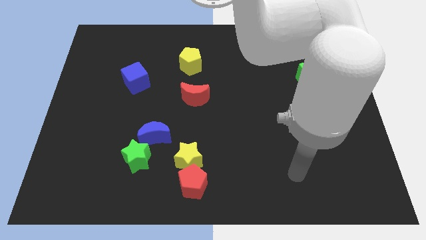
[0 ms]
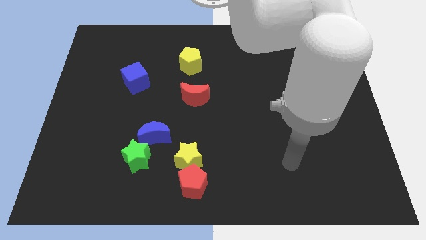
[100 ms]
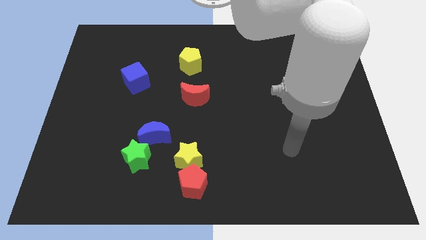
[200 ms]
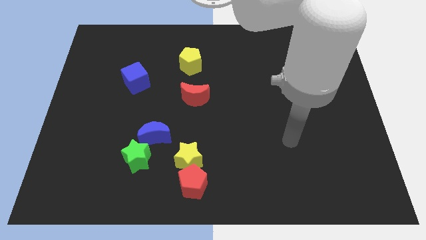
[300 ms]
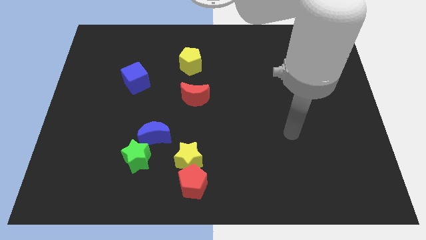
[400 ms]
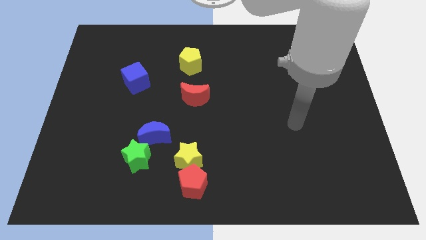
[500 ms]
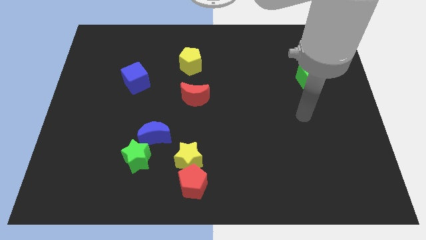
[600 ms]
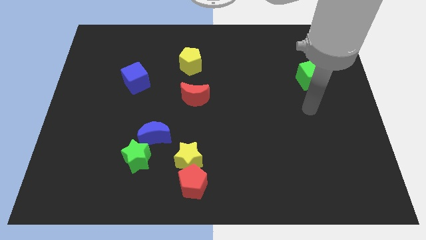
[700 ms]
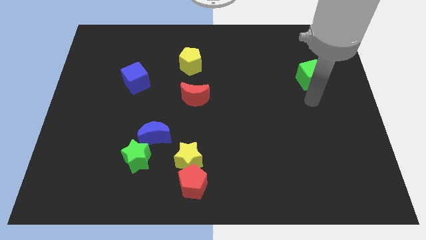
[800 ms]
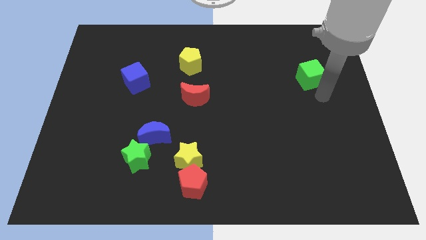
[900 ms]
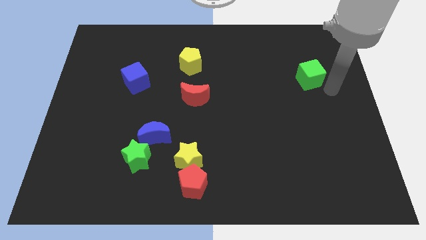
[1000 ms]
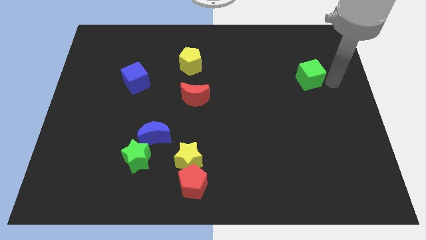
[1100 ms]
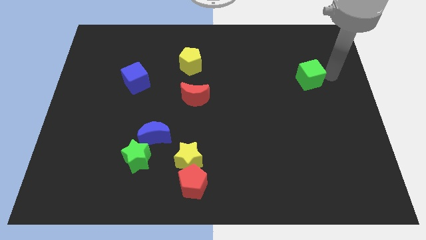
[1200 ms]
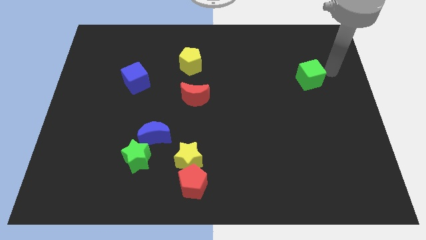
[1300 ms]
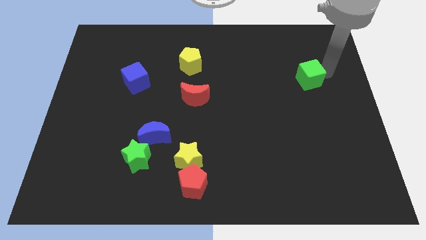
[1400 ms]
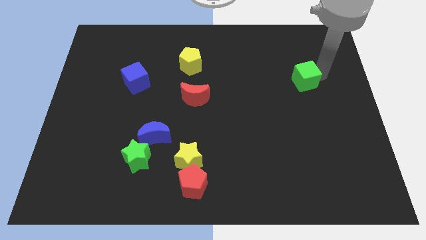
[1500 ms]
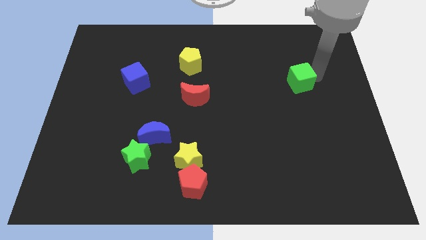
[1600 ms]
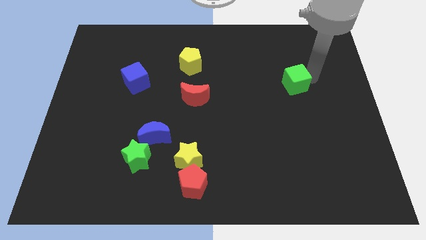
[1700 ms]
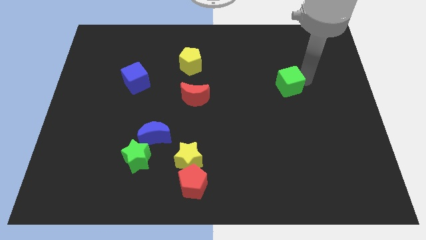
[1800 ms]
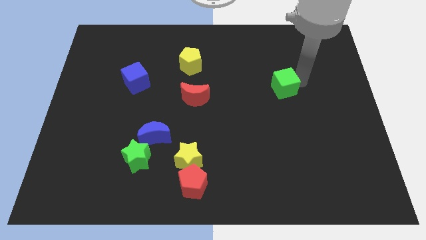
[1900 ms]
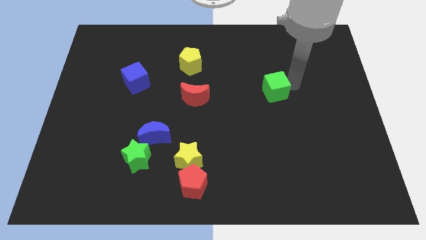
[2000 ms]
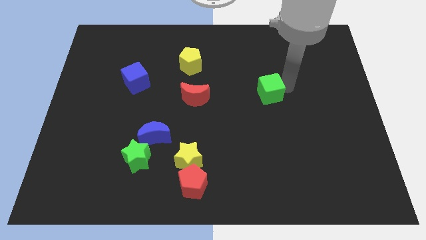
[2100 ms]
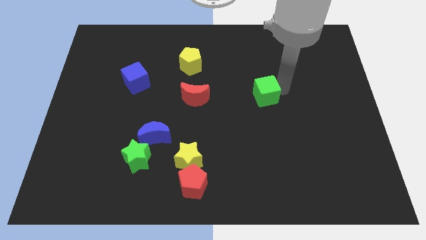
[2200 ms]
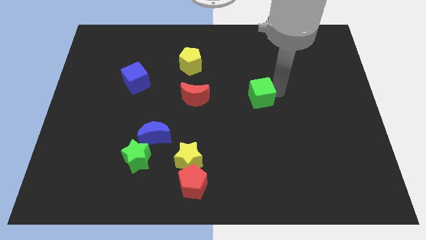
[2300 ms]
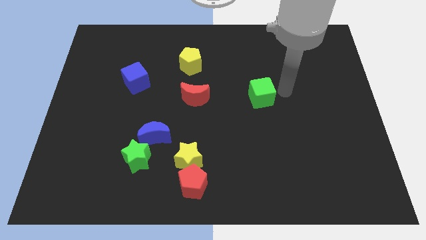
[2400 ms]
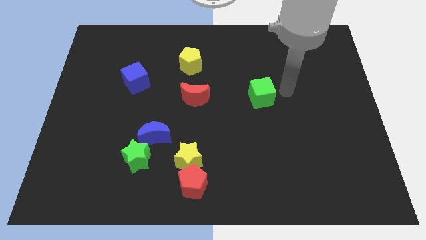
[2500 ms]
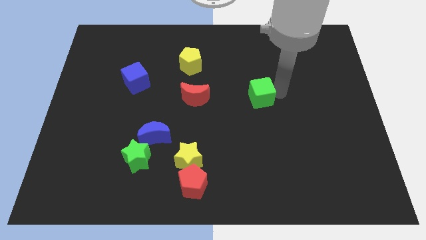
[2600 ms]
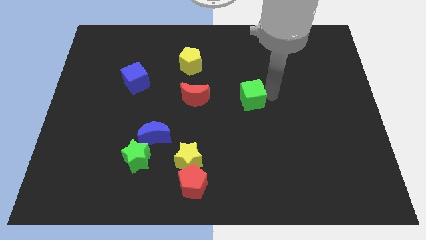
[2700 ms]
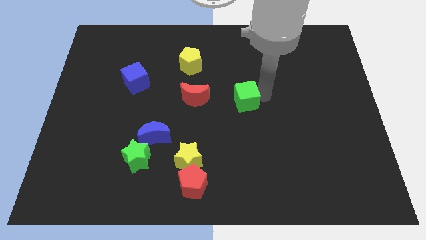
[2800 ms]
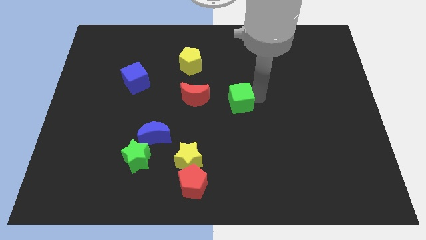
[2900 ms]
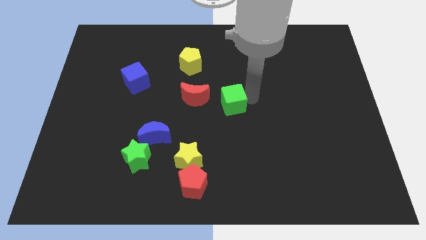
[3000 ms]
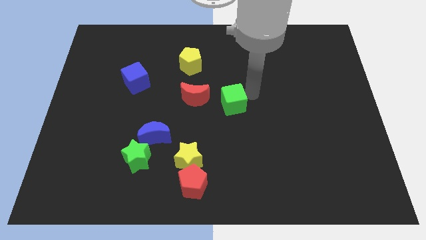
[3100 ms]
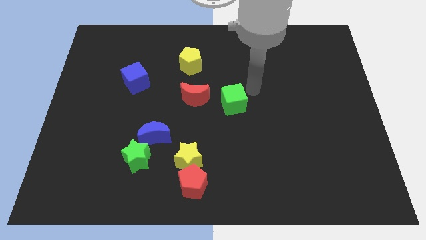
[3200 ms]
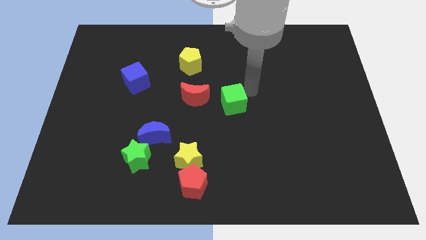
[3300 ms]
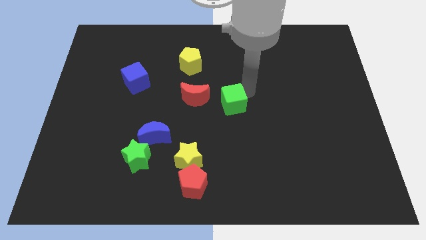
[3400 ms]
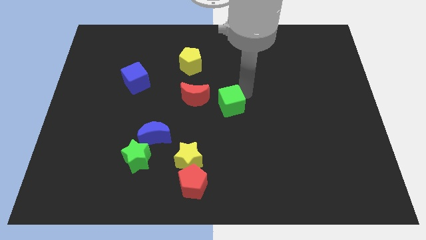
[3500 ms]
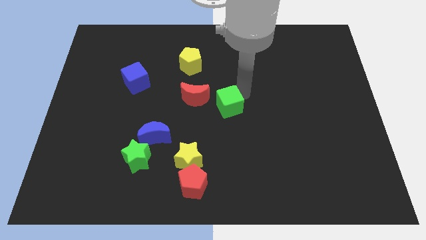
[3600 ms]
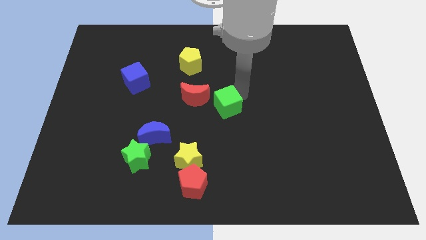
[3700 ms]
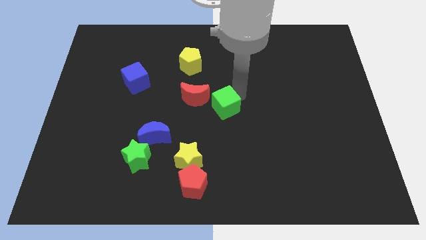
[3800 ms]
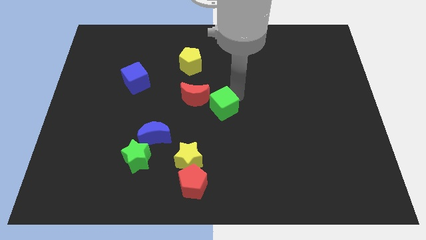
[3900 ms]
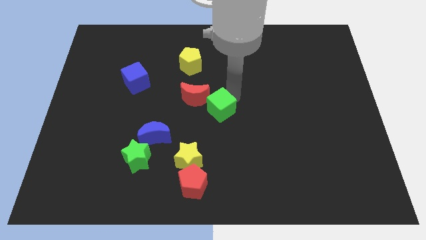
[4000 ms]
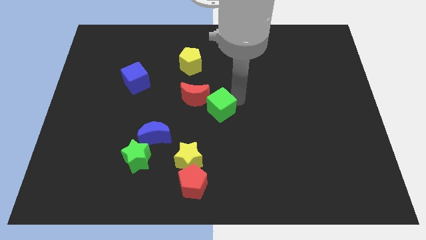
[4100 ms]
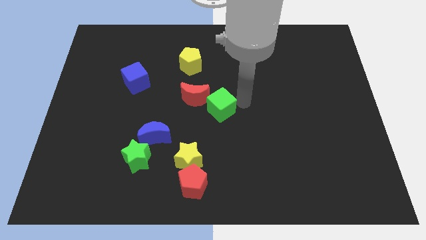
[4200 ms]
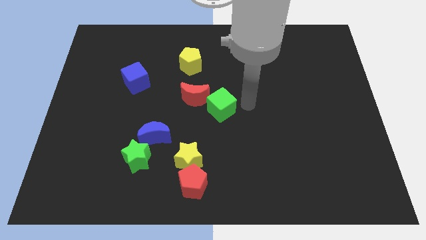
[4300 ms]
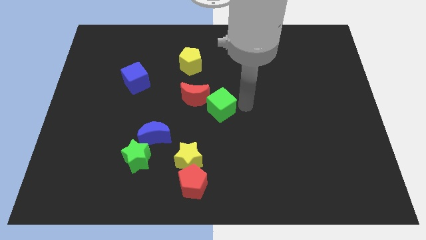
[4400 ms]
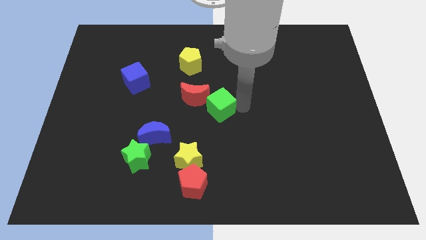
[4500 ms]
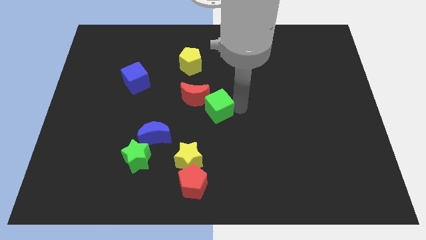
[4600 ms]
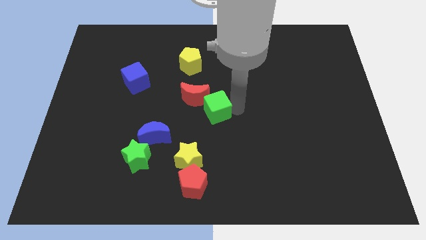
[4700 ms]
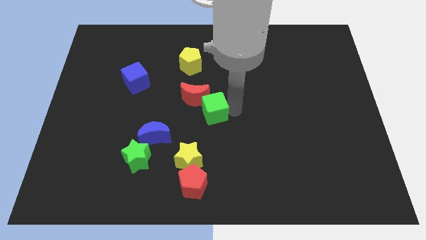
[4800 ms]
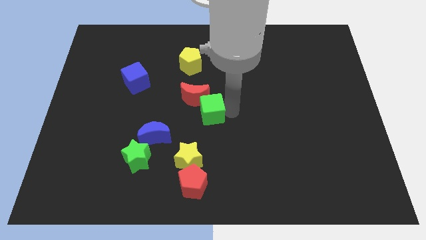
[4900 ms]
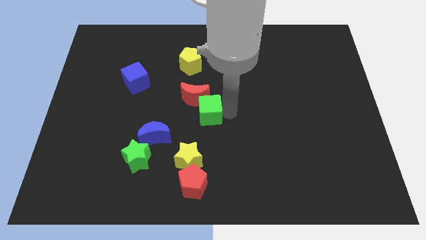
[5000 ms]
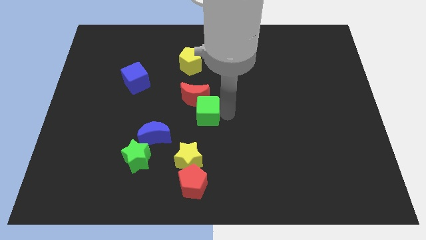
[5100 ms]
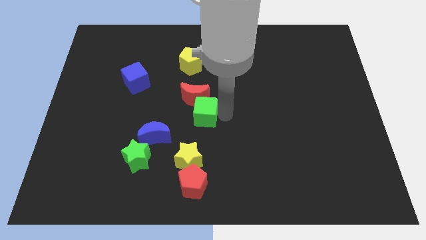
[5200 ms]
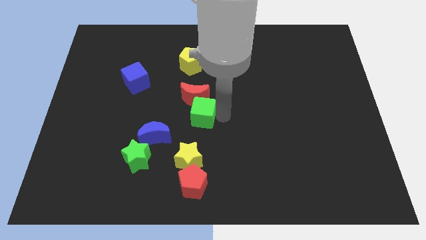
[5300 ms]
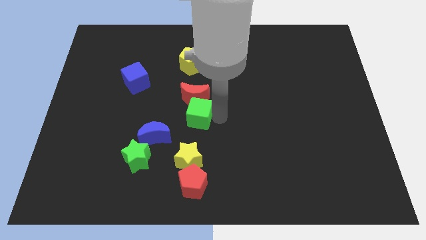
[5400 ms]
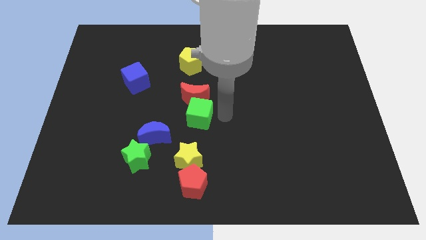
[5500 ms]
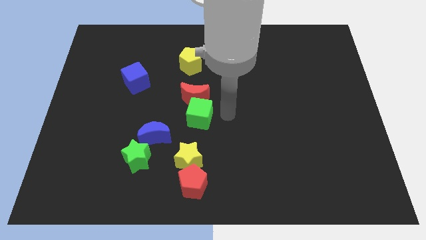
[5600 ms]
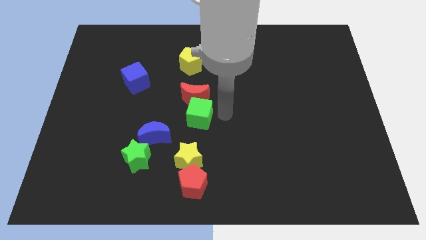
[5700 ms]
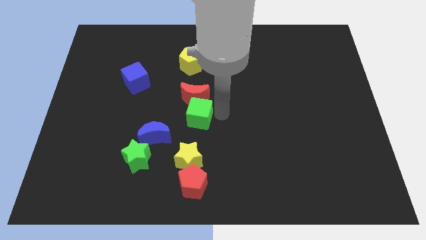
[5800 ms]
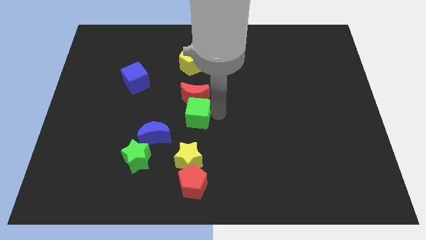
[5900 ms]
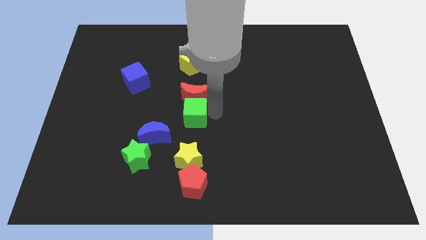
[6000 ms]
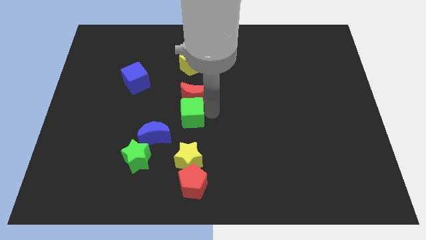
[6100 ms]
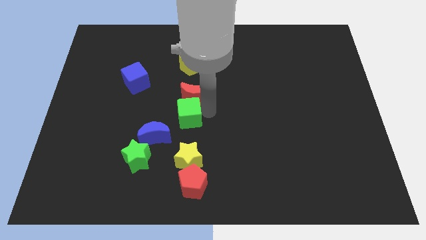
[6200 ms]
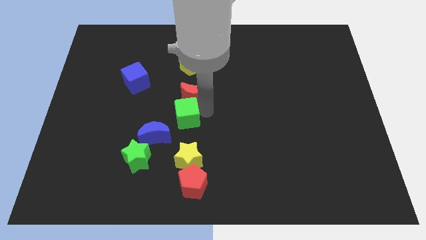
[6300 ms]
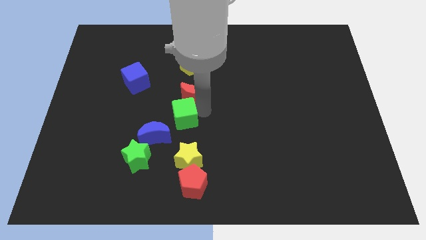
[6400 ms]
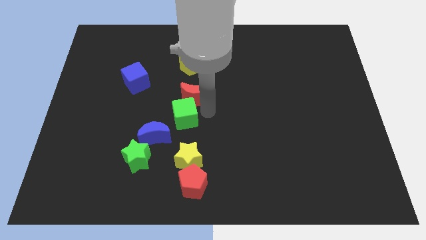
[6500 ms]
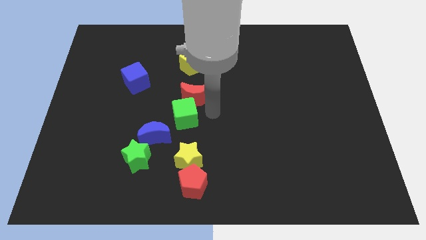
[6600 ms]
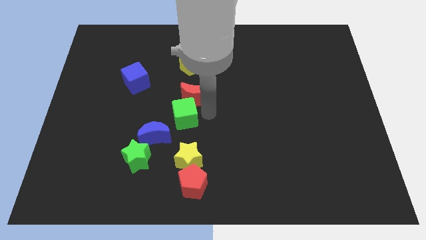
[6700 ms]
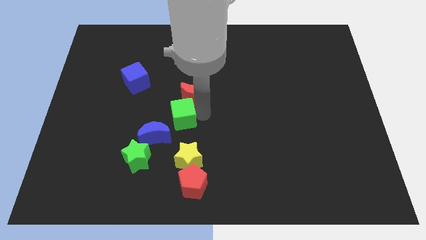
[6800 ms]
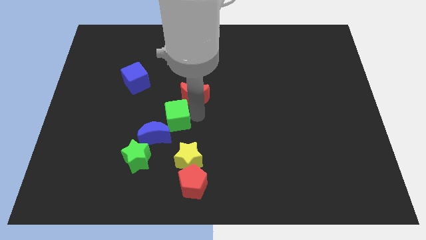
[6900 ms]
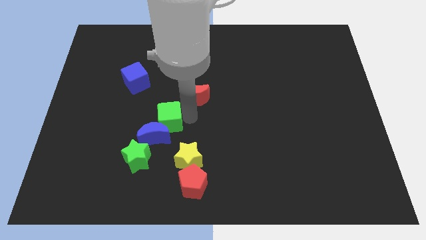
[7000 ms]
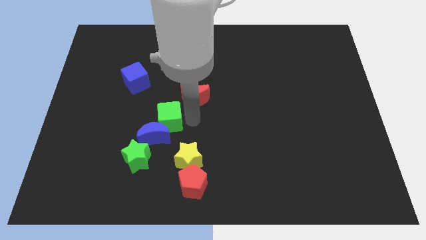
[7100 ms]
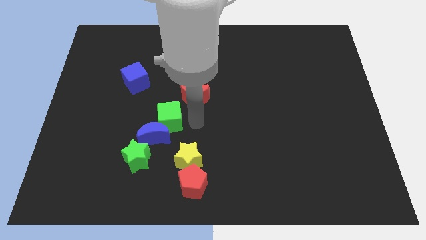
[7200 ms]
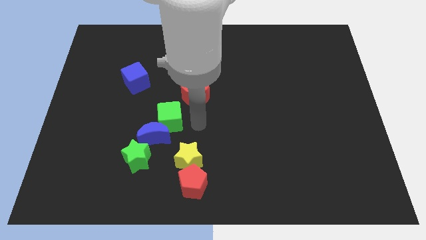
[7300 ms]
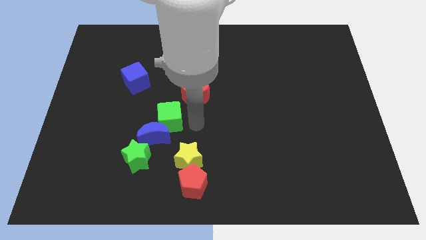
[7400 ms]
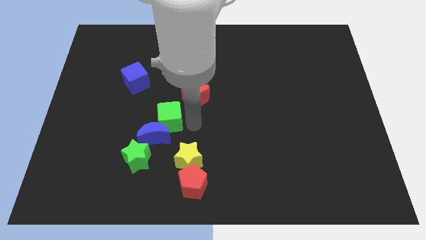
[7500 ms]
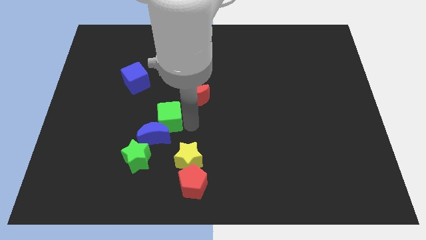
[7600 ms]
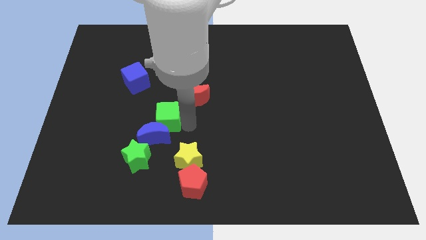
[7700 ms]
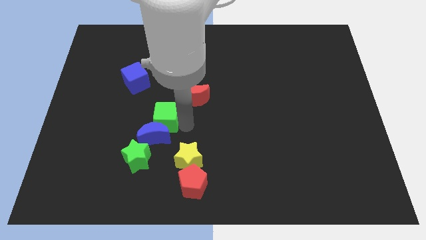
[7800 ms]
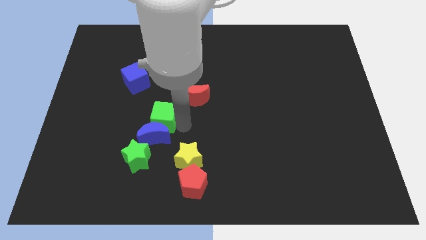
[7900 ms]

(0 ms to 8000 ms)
slide the green cube to the top left side of the blue moon
